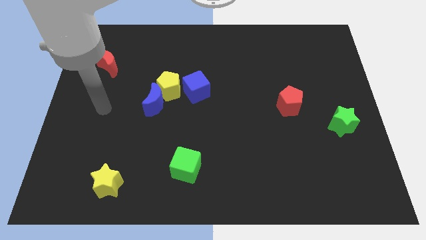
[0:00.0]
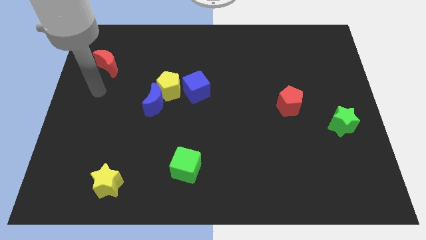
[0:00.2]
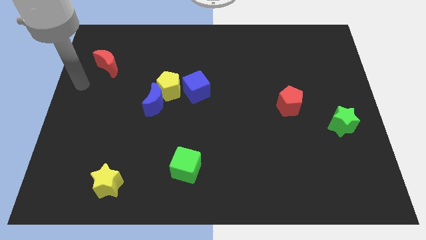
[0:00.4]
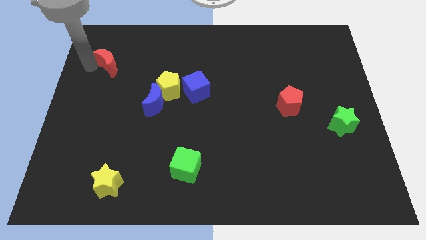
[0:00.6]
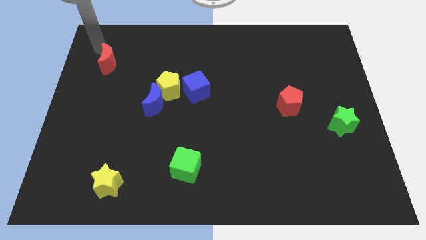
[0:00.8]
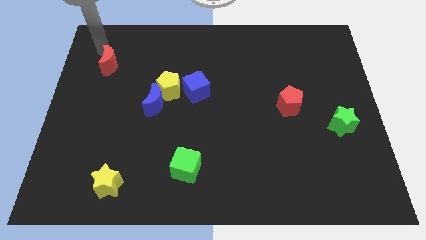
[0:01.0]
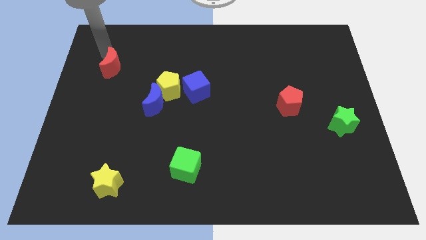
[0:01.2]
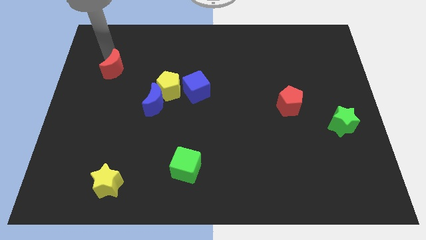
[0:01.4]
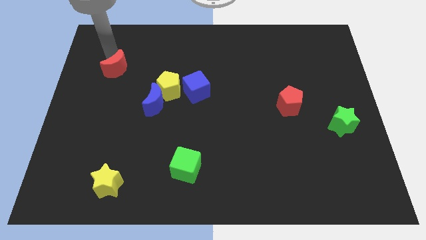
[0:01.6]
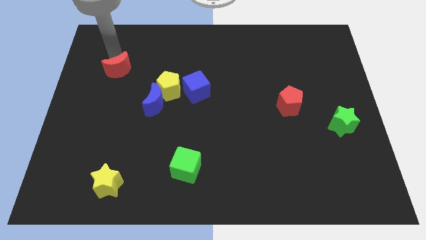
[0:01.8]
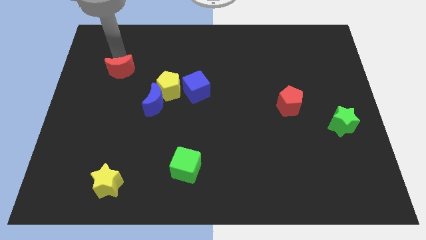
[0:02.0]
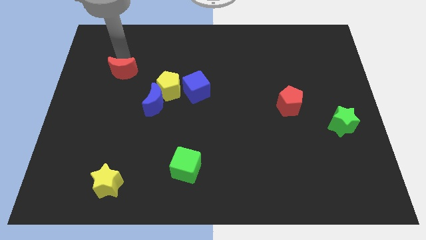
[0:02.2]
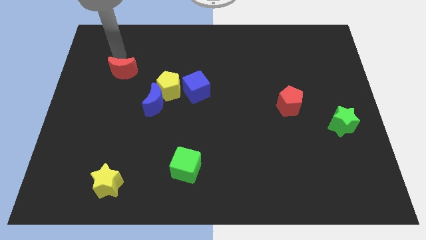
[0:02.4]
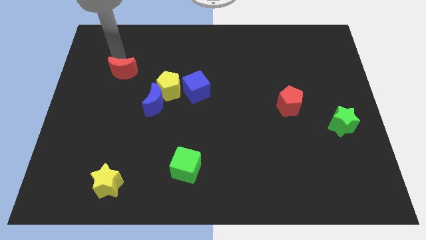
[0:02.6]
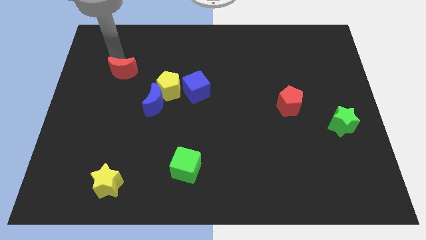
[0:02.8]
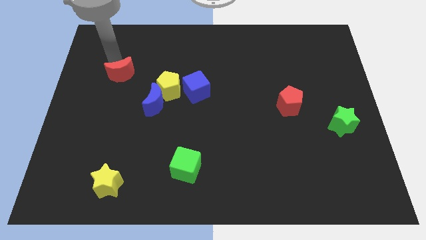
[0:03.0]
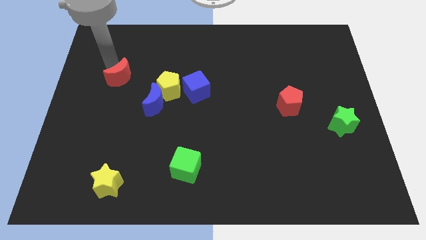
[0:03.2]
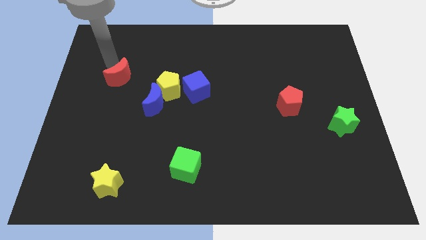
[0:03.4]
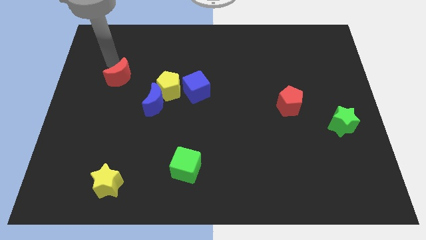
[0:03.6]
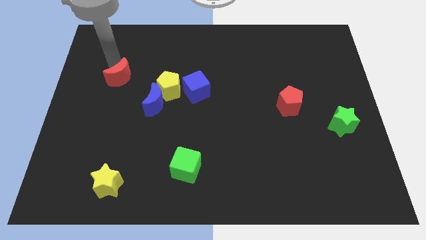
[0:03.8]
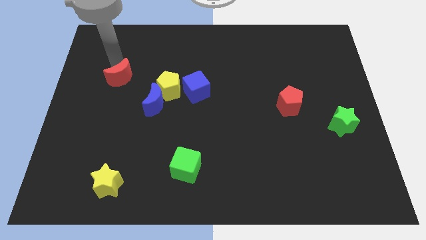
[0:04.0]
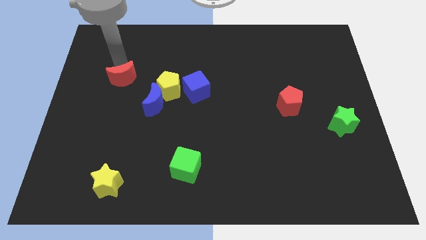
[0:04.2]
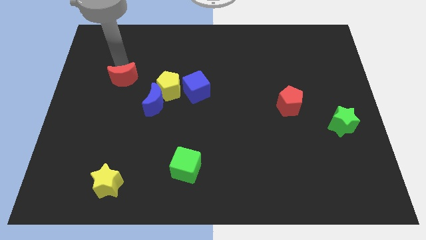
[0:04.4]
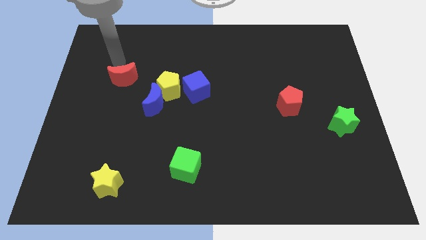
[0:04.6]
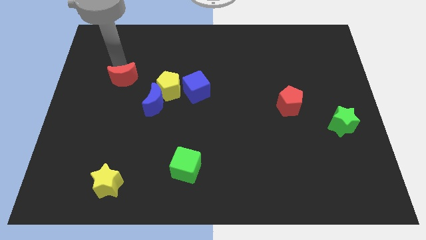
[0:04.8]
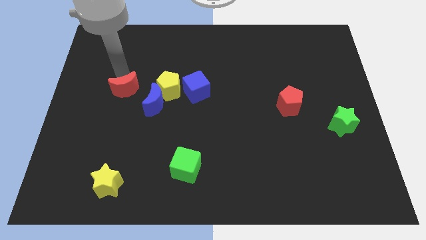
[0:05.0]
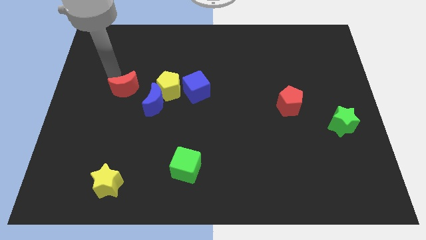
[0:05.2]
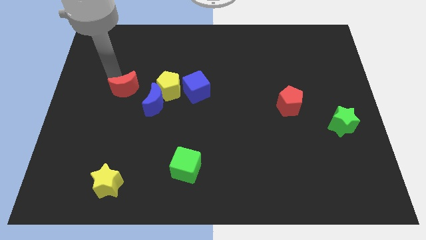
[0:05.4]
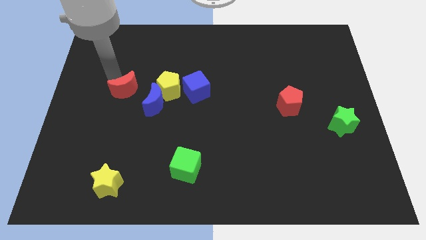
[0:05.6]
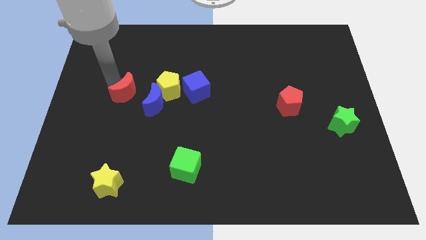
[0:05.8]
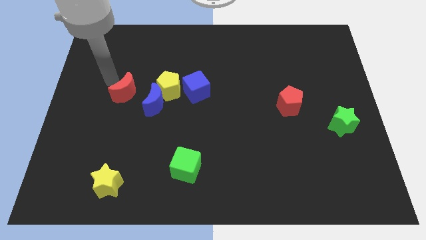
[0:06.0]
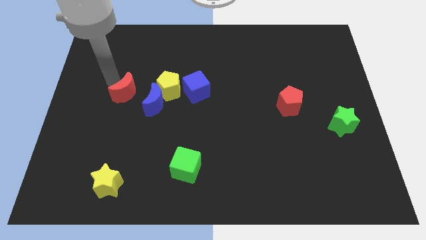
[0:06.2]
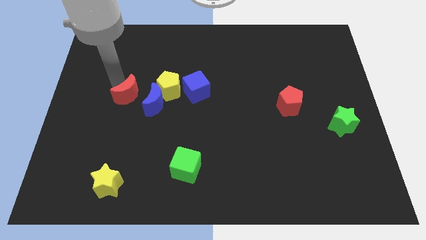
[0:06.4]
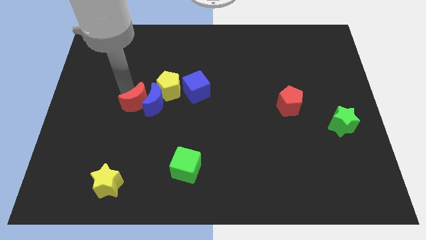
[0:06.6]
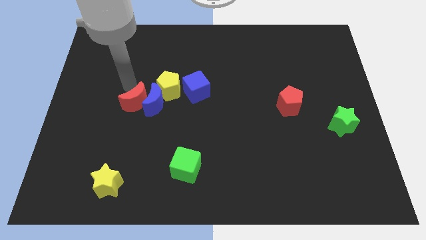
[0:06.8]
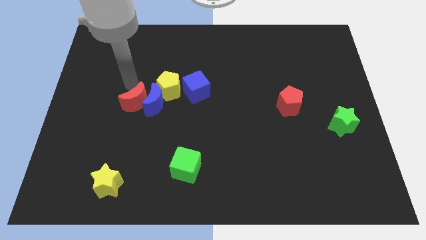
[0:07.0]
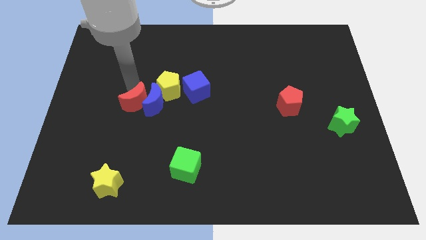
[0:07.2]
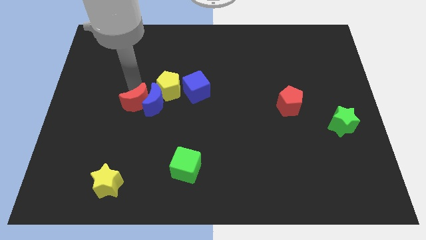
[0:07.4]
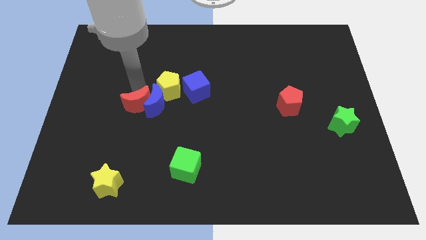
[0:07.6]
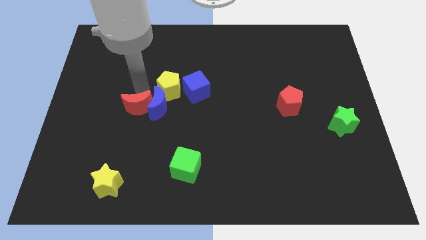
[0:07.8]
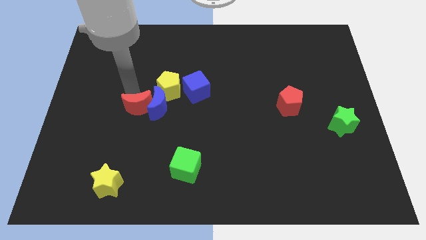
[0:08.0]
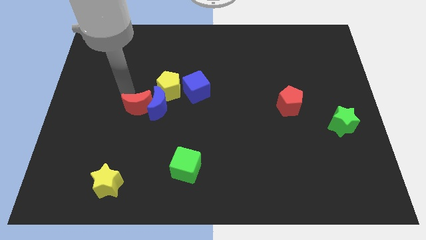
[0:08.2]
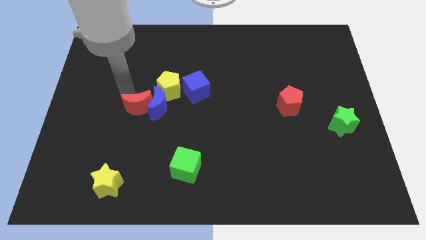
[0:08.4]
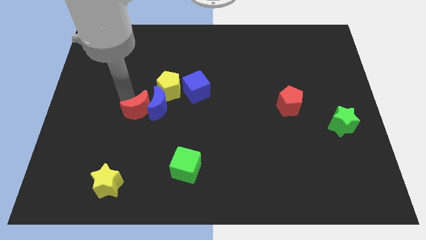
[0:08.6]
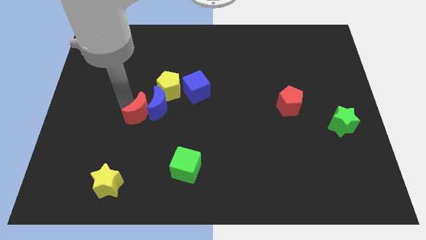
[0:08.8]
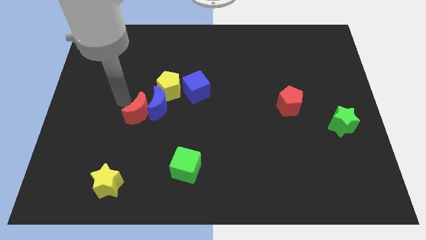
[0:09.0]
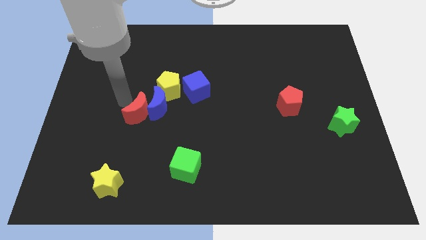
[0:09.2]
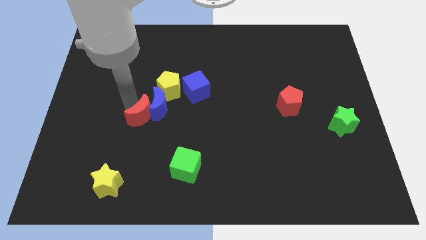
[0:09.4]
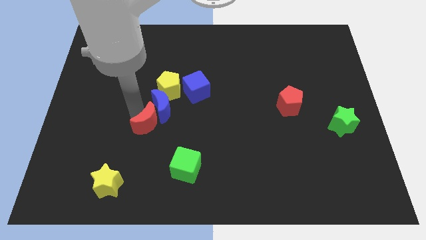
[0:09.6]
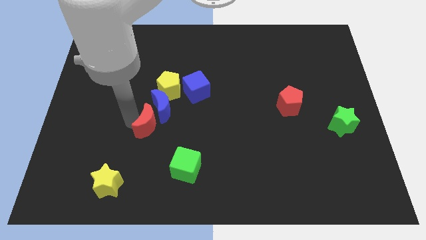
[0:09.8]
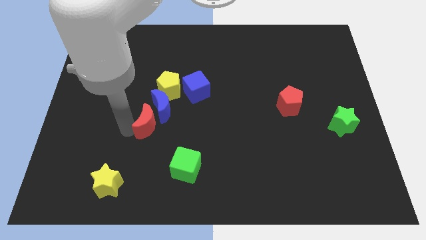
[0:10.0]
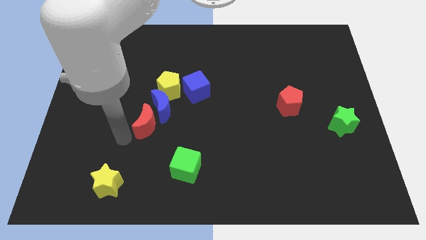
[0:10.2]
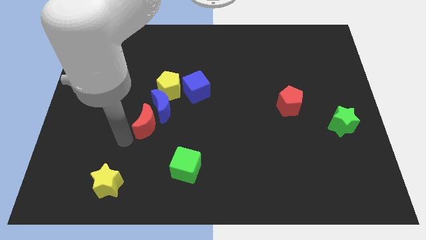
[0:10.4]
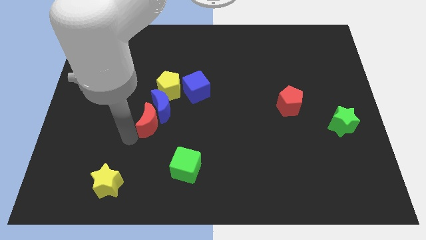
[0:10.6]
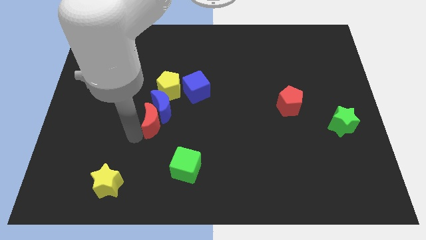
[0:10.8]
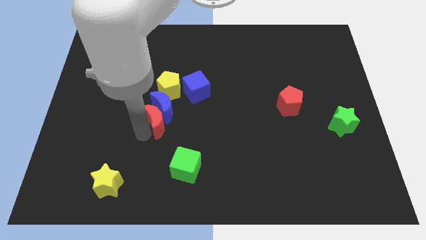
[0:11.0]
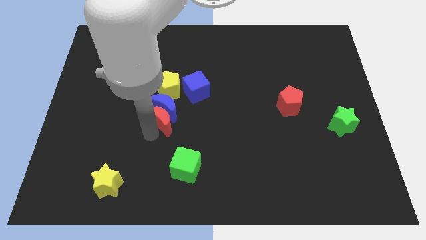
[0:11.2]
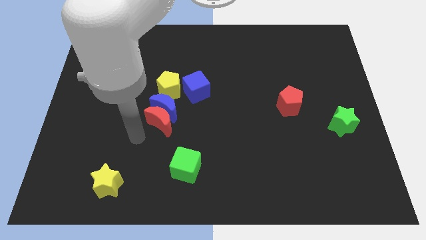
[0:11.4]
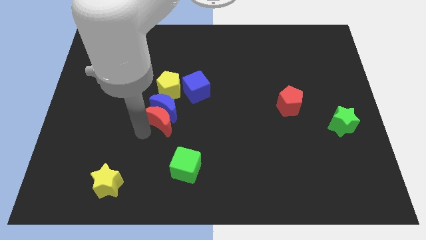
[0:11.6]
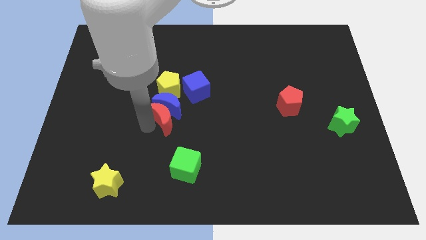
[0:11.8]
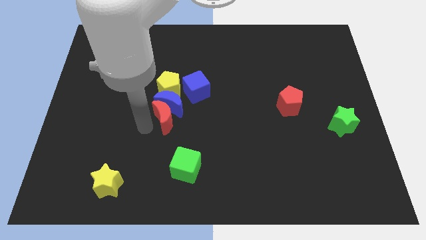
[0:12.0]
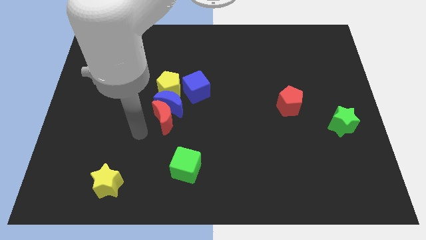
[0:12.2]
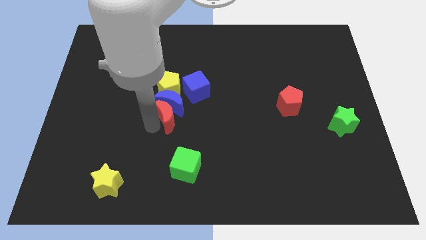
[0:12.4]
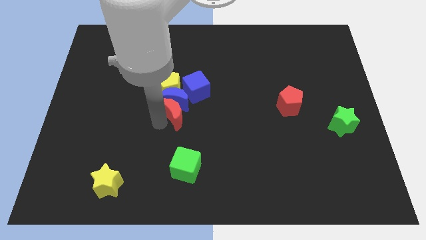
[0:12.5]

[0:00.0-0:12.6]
slide the red moon to the bottom right of the yellow pentagon
